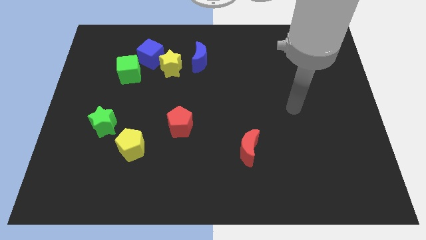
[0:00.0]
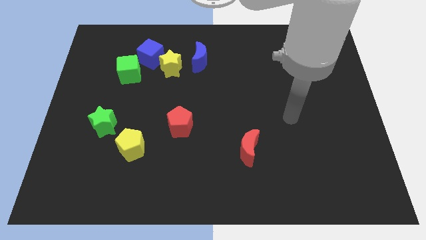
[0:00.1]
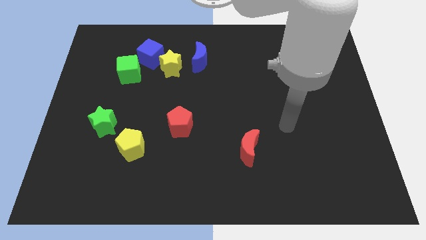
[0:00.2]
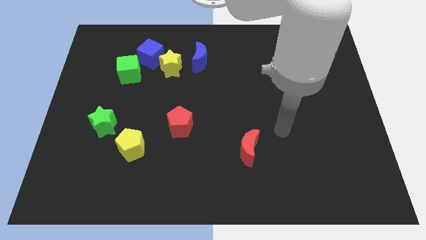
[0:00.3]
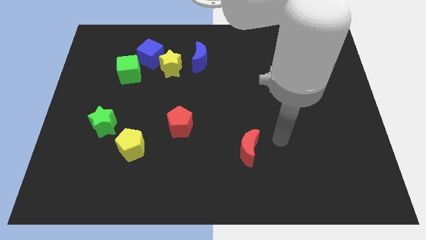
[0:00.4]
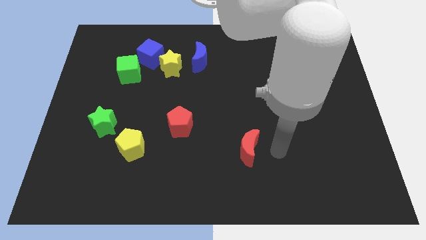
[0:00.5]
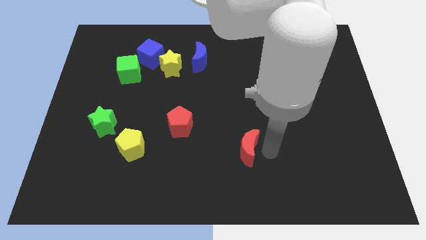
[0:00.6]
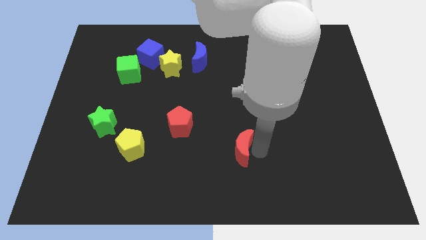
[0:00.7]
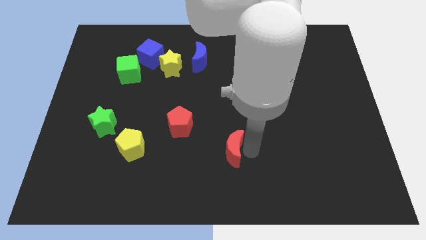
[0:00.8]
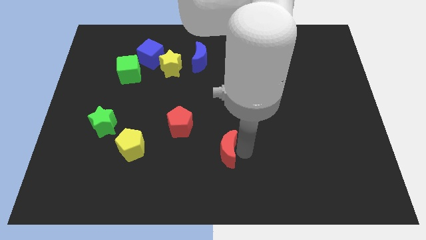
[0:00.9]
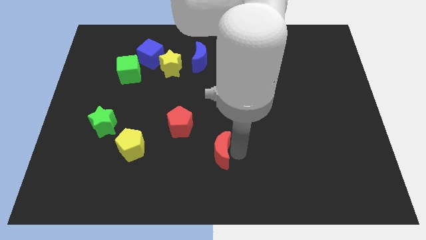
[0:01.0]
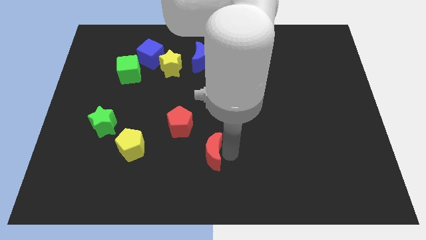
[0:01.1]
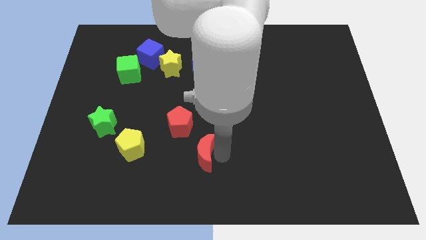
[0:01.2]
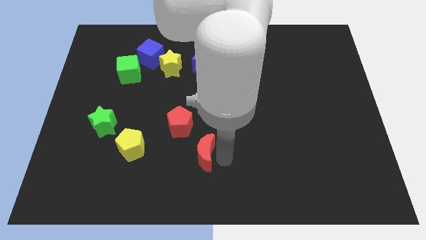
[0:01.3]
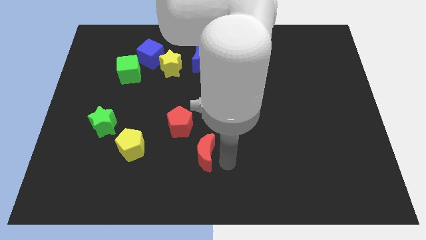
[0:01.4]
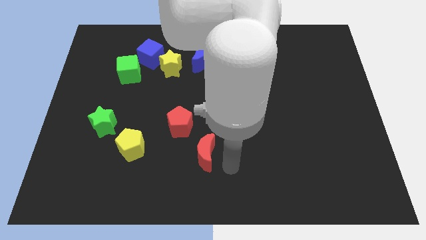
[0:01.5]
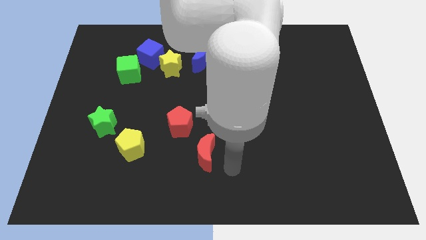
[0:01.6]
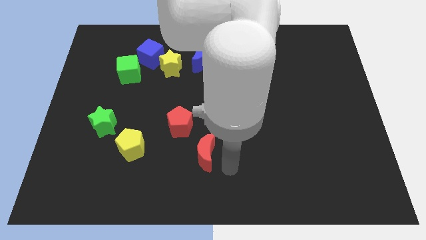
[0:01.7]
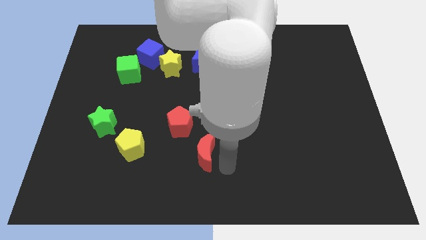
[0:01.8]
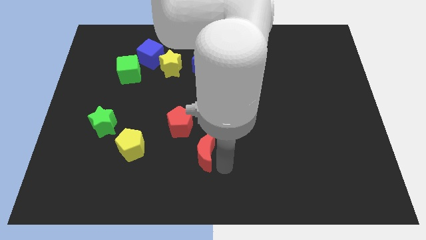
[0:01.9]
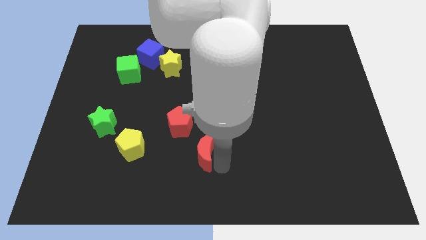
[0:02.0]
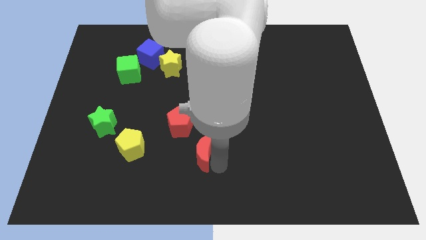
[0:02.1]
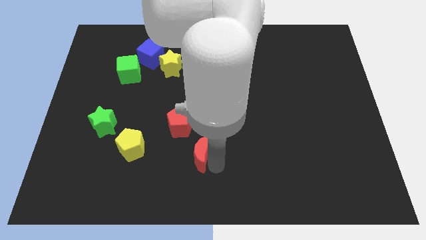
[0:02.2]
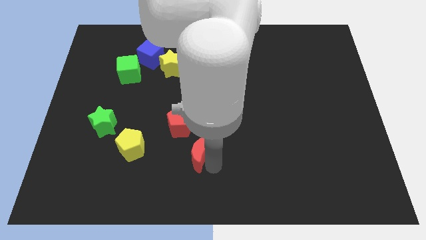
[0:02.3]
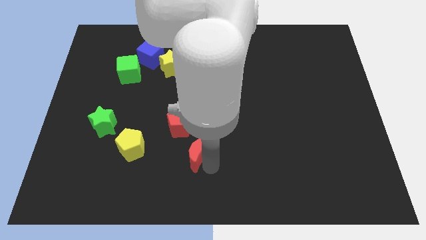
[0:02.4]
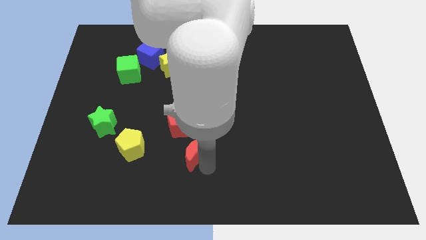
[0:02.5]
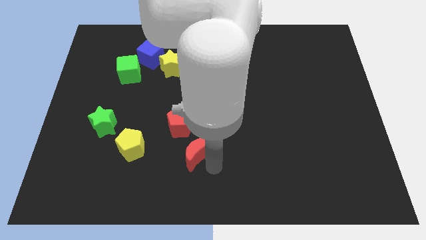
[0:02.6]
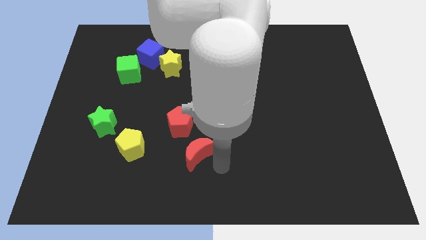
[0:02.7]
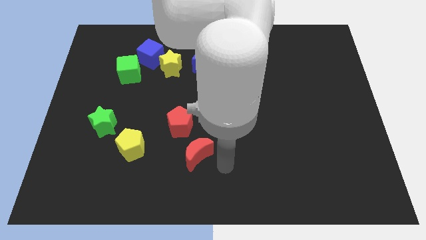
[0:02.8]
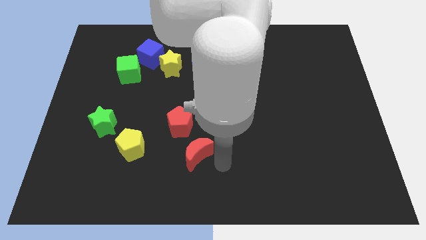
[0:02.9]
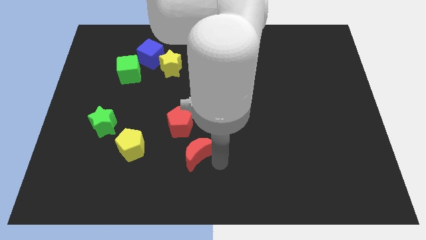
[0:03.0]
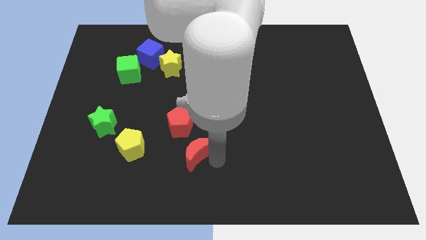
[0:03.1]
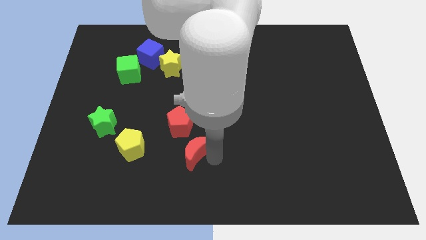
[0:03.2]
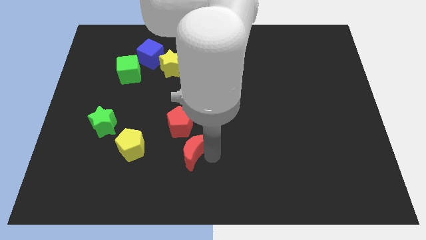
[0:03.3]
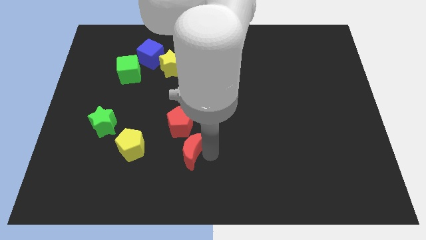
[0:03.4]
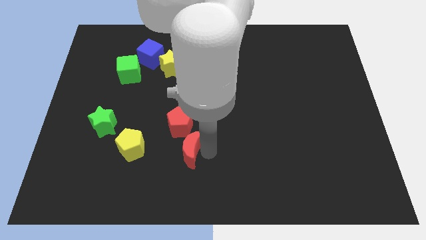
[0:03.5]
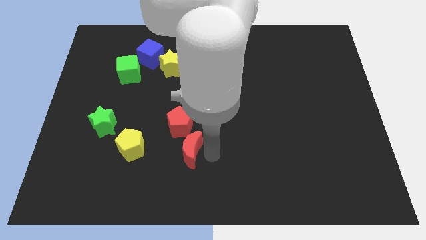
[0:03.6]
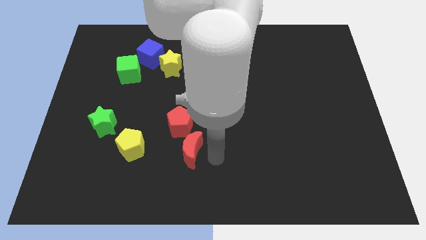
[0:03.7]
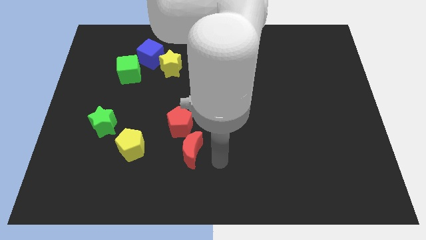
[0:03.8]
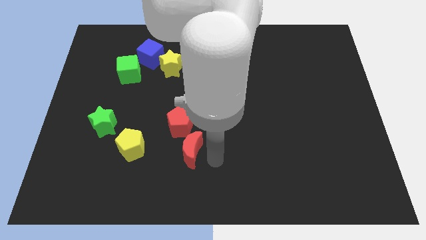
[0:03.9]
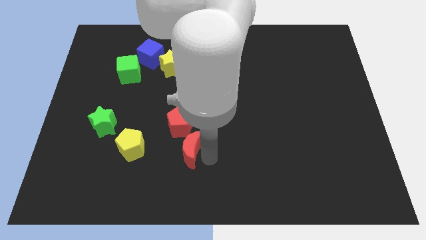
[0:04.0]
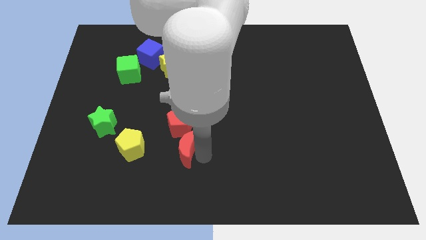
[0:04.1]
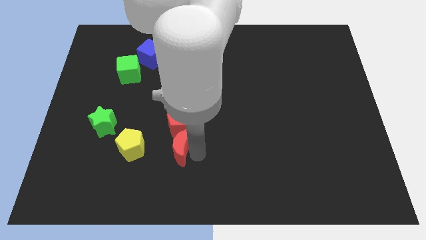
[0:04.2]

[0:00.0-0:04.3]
move the red moon to the bottom left of the red pentagon

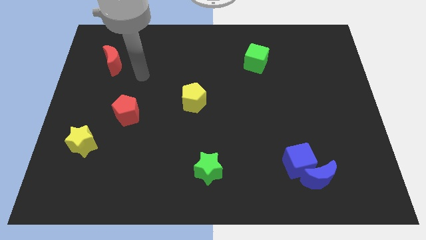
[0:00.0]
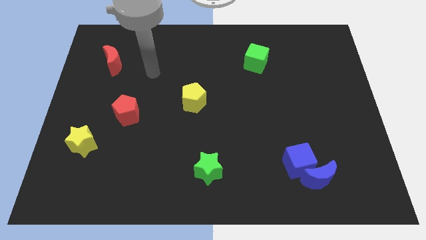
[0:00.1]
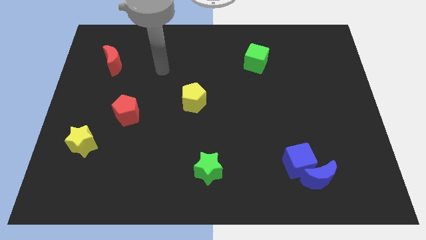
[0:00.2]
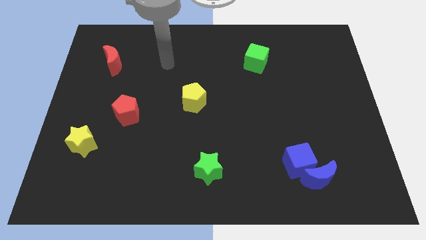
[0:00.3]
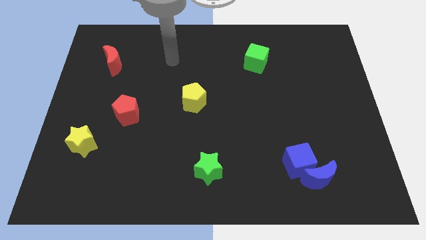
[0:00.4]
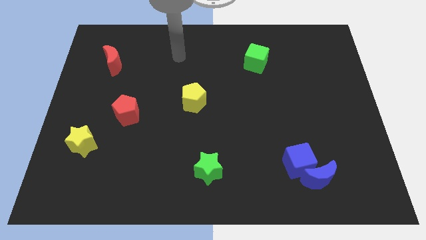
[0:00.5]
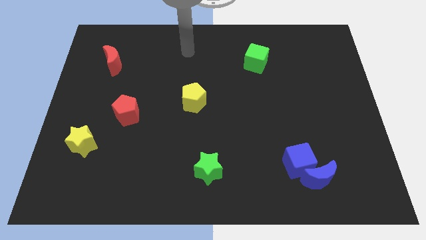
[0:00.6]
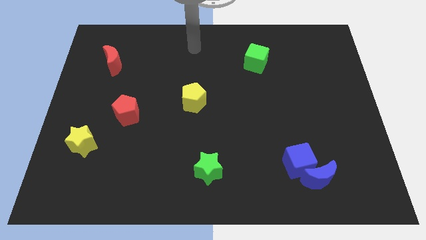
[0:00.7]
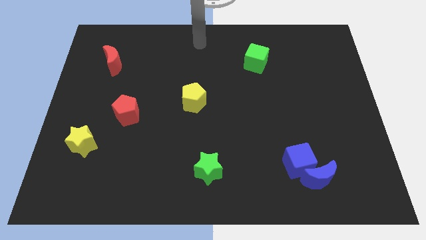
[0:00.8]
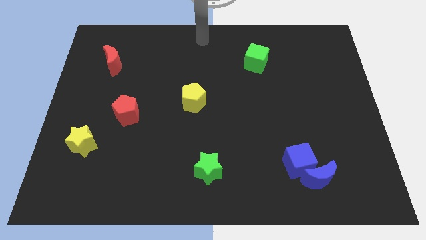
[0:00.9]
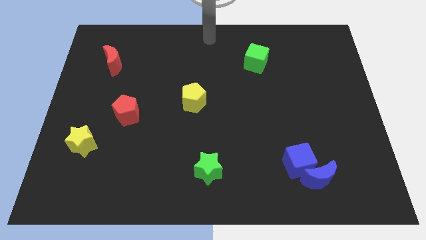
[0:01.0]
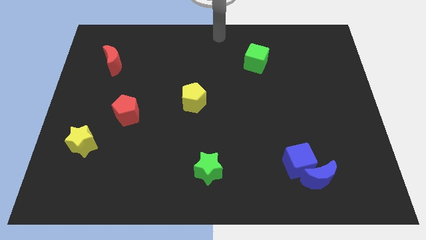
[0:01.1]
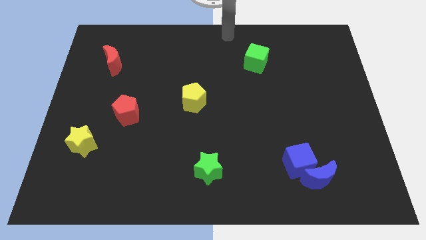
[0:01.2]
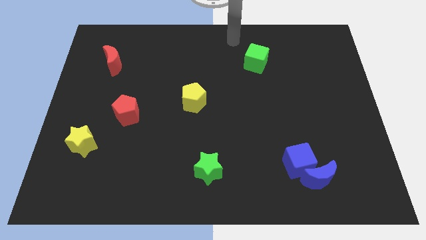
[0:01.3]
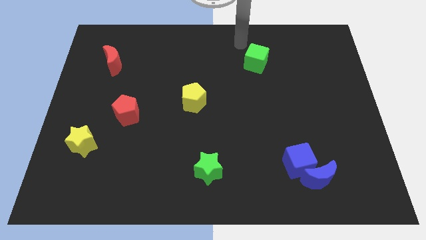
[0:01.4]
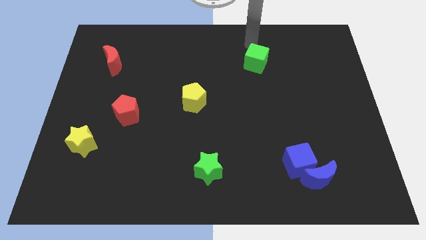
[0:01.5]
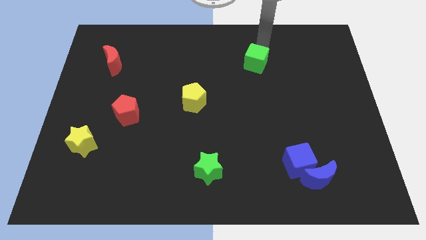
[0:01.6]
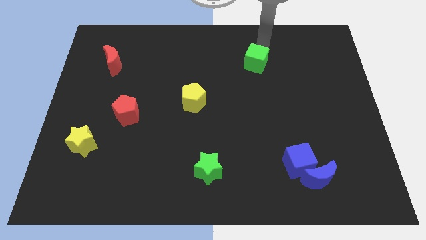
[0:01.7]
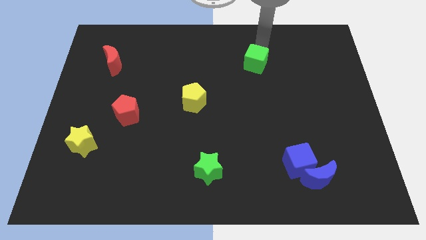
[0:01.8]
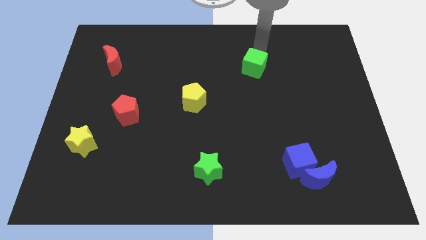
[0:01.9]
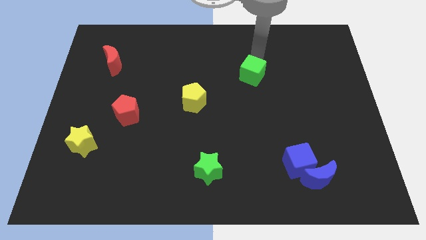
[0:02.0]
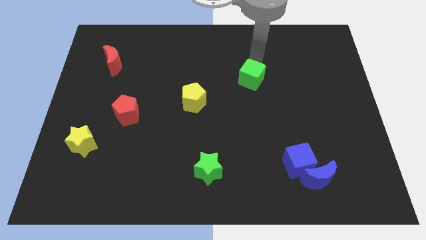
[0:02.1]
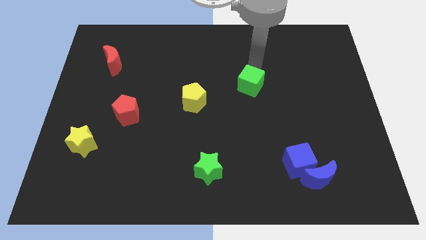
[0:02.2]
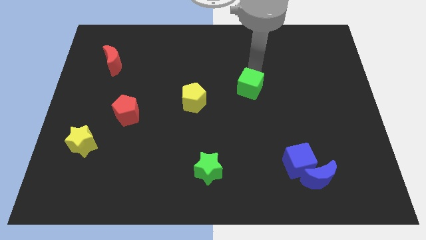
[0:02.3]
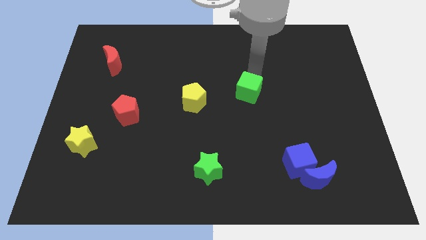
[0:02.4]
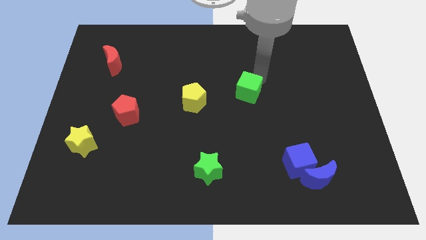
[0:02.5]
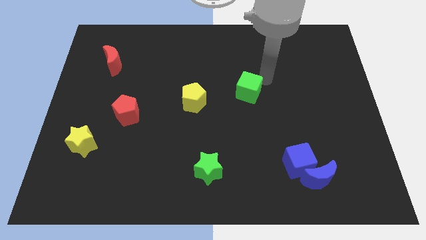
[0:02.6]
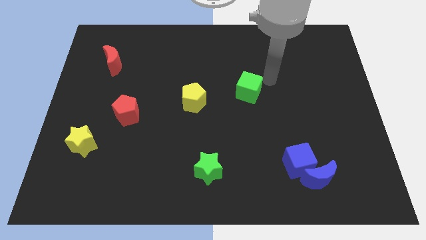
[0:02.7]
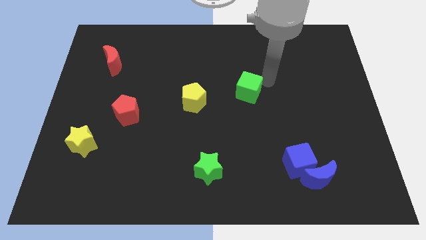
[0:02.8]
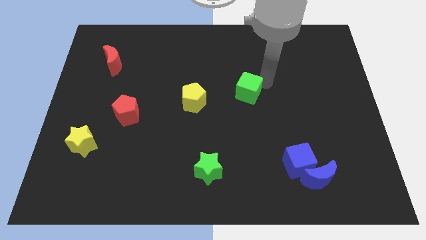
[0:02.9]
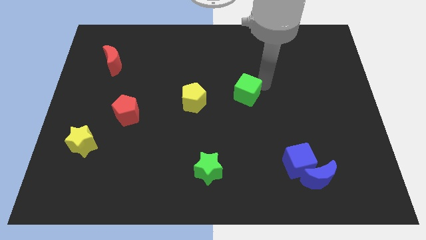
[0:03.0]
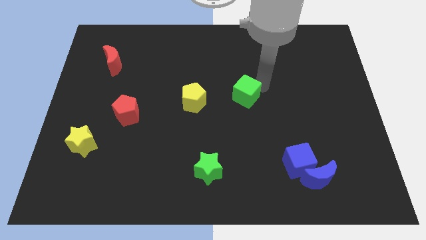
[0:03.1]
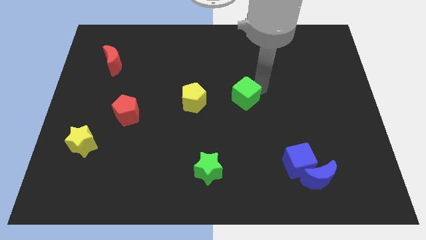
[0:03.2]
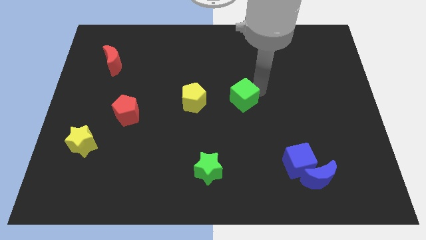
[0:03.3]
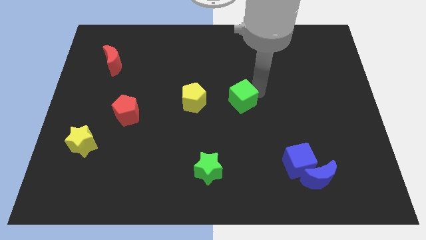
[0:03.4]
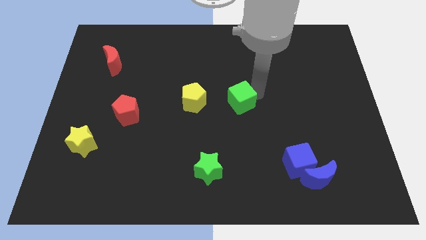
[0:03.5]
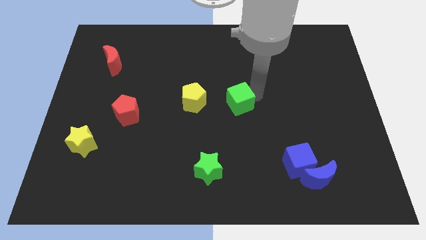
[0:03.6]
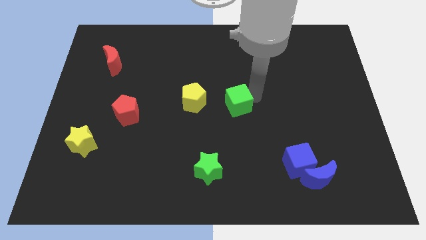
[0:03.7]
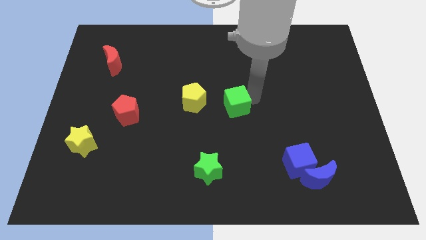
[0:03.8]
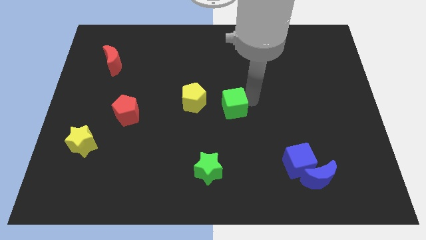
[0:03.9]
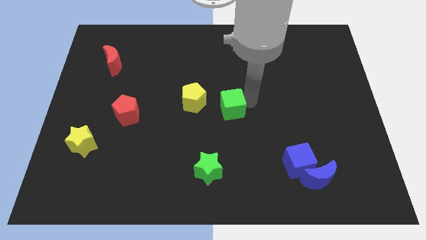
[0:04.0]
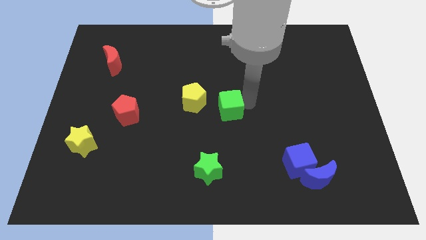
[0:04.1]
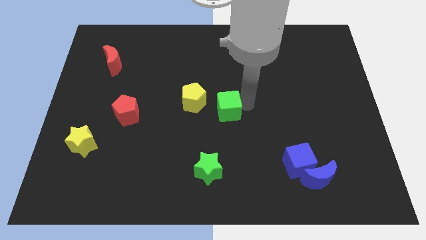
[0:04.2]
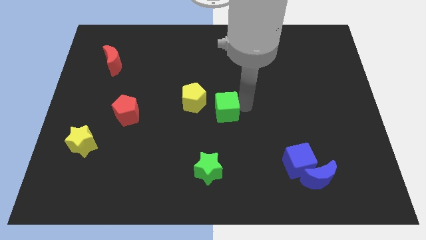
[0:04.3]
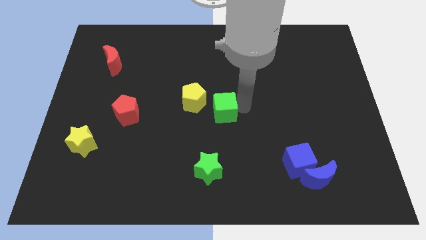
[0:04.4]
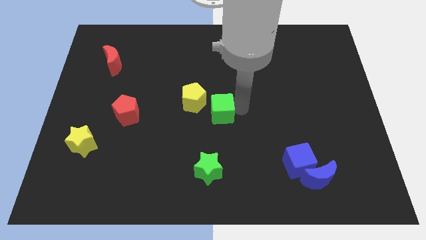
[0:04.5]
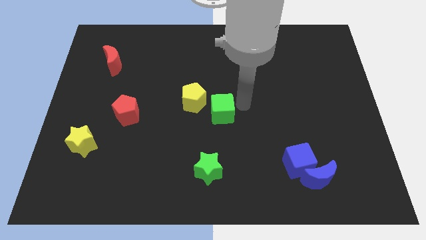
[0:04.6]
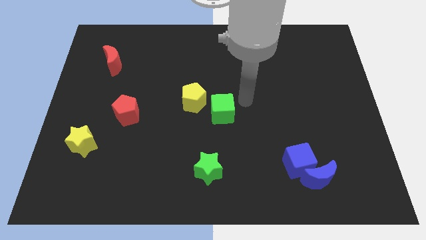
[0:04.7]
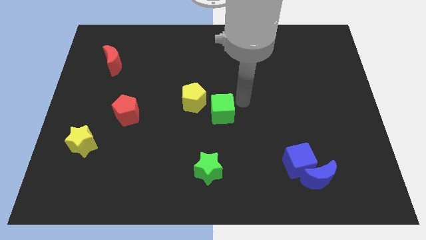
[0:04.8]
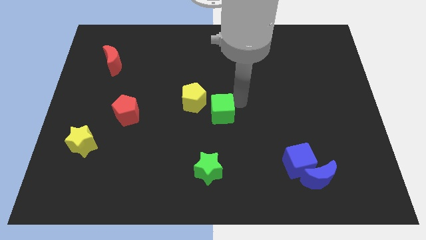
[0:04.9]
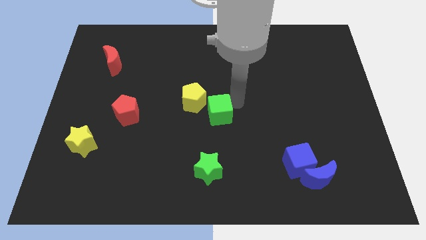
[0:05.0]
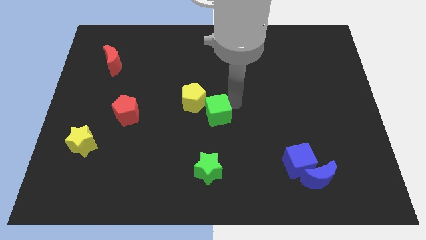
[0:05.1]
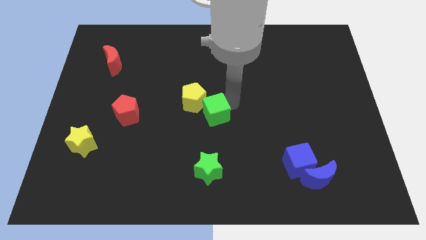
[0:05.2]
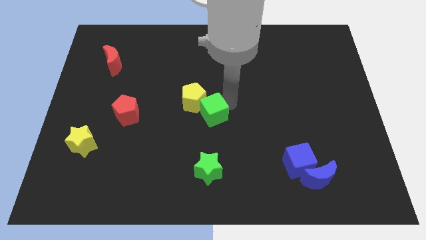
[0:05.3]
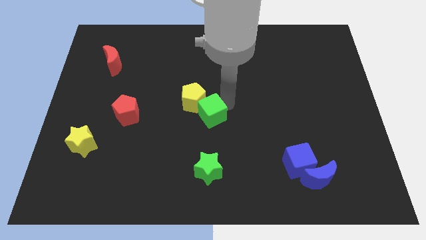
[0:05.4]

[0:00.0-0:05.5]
move the green cube to the bottom side of the yellow pentagon
